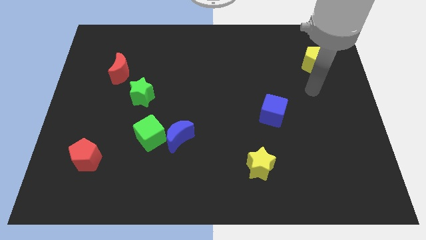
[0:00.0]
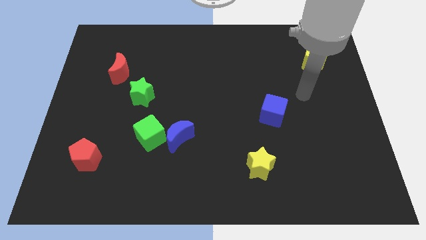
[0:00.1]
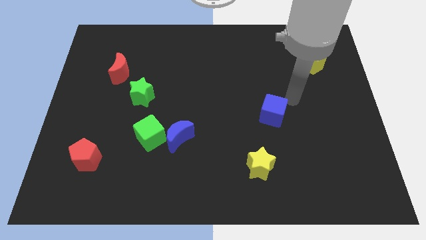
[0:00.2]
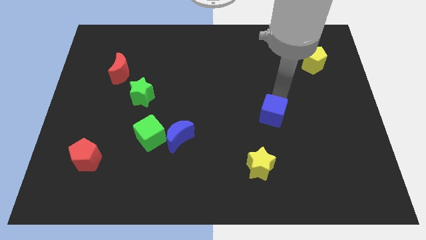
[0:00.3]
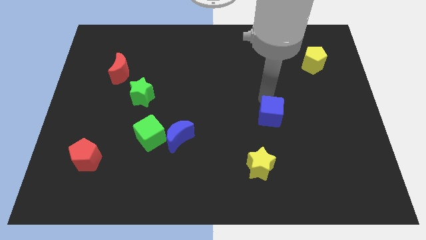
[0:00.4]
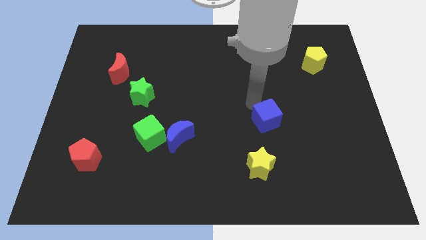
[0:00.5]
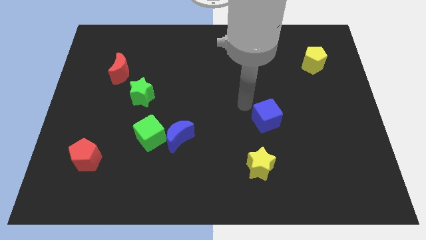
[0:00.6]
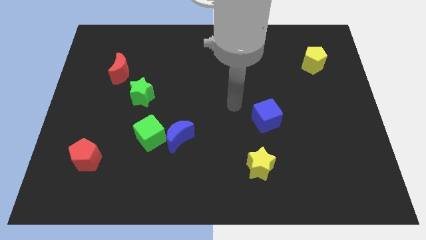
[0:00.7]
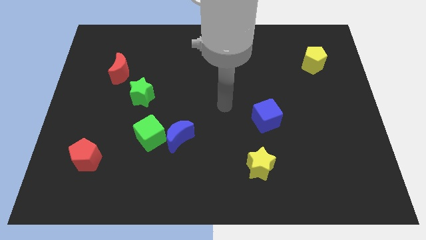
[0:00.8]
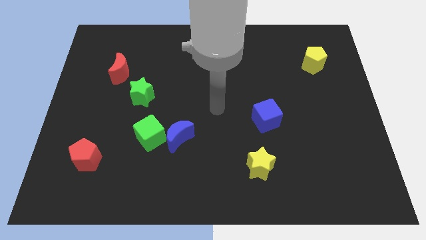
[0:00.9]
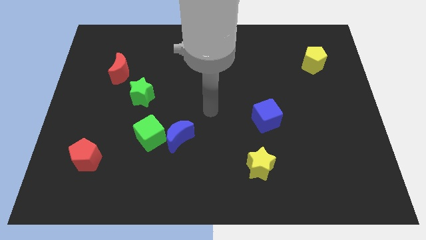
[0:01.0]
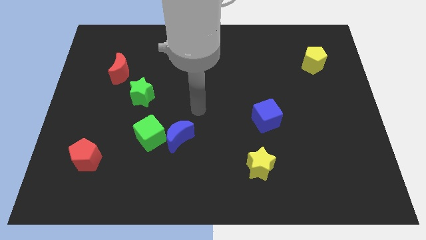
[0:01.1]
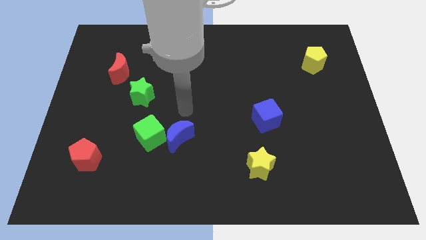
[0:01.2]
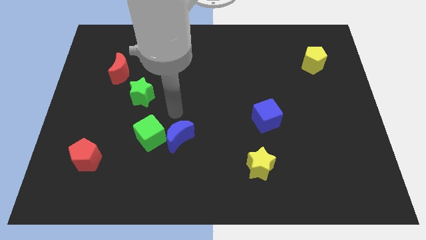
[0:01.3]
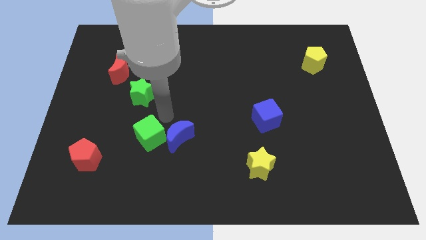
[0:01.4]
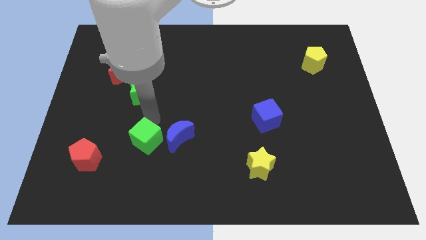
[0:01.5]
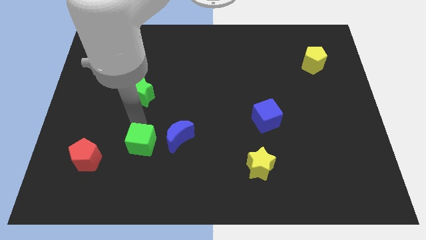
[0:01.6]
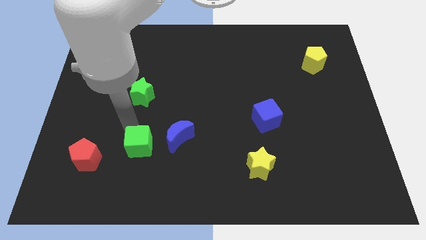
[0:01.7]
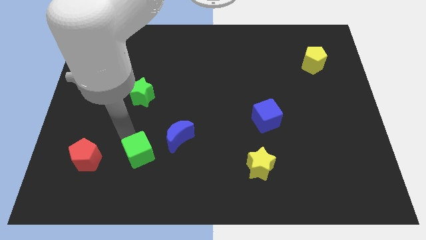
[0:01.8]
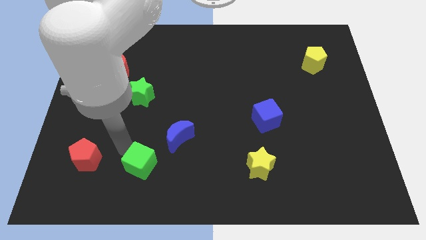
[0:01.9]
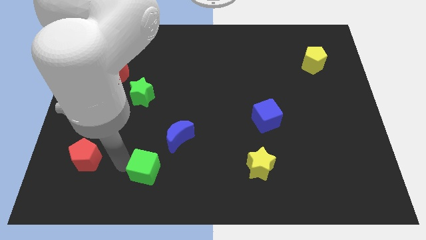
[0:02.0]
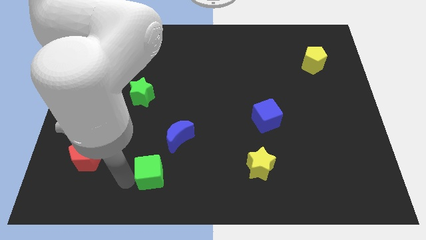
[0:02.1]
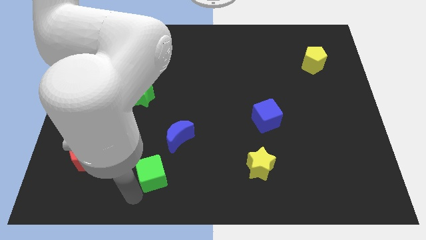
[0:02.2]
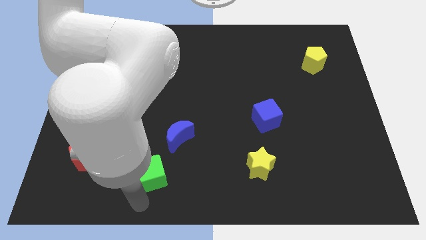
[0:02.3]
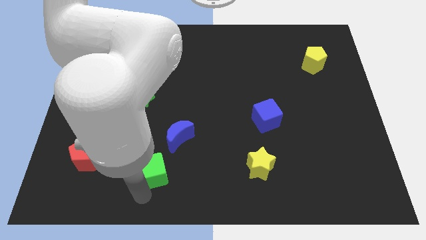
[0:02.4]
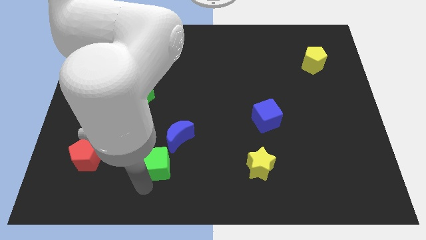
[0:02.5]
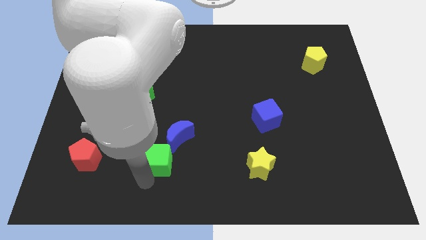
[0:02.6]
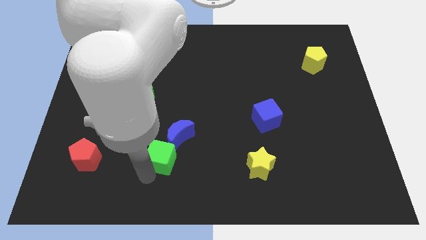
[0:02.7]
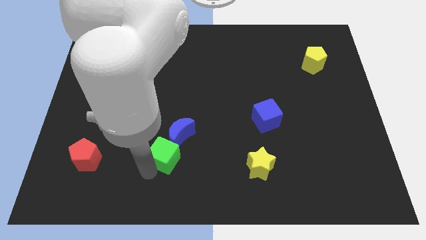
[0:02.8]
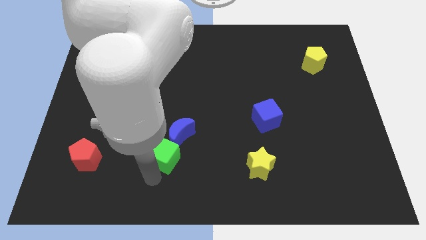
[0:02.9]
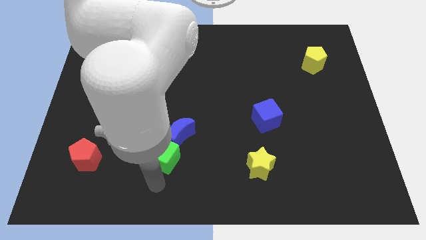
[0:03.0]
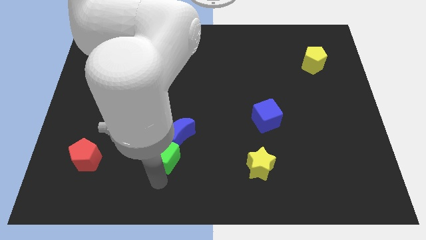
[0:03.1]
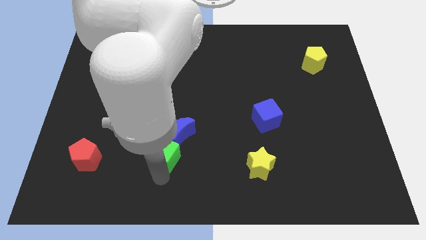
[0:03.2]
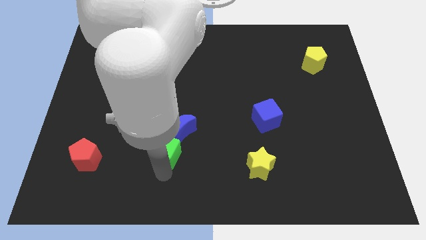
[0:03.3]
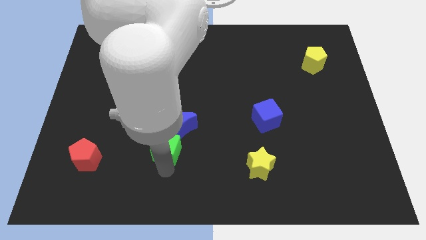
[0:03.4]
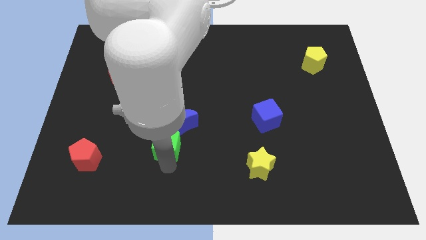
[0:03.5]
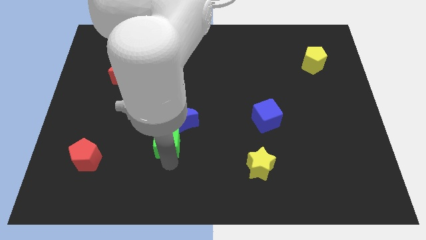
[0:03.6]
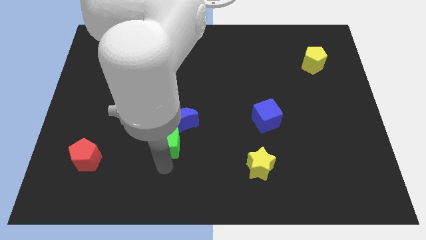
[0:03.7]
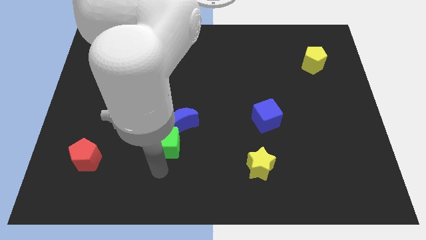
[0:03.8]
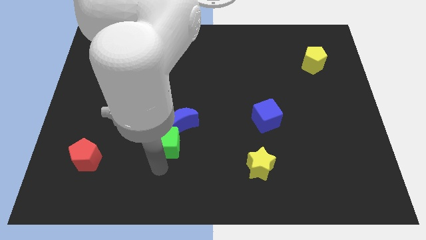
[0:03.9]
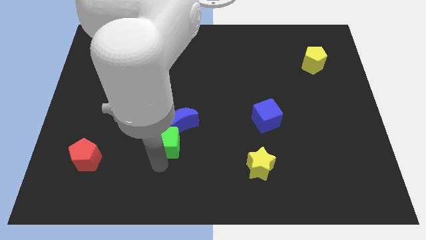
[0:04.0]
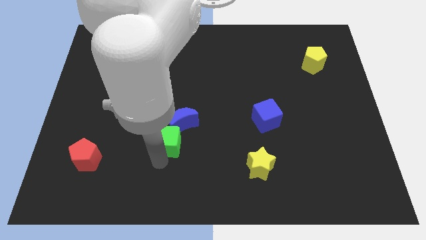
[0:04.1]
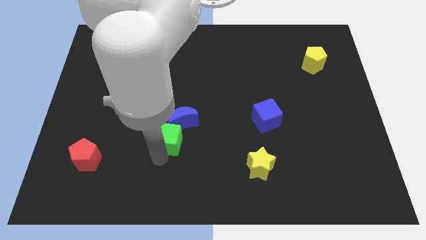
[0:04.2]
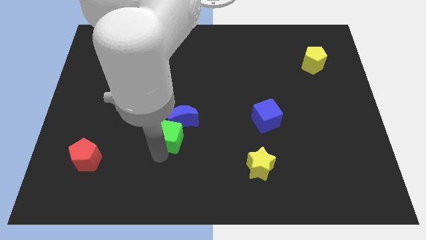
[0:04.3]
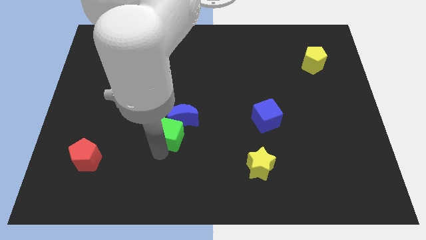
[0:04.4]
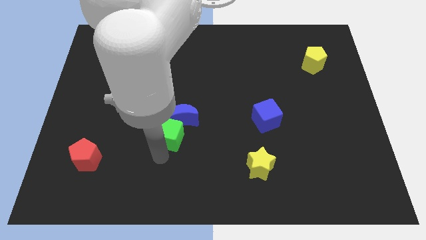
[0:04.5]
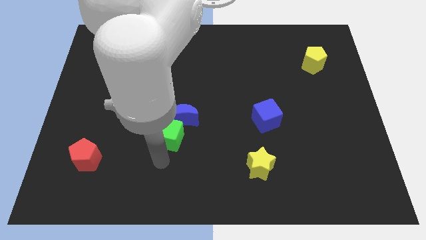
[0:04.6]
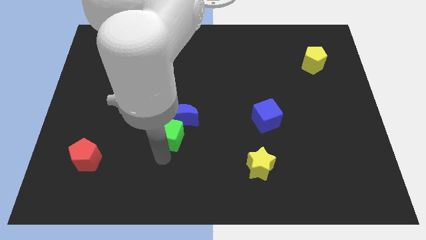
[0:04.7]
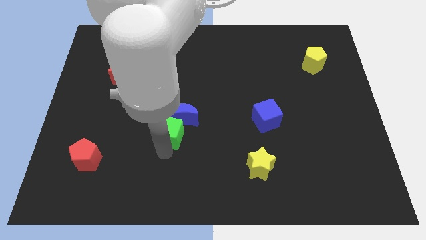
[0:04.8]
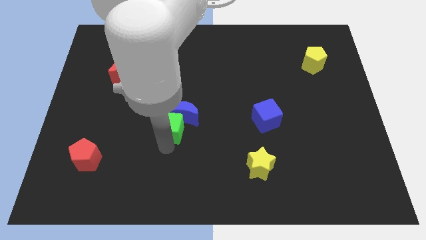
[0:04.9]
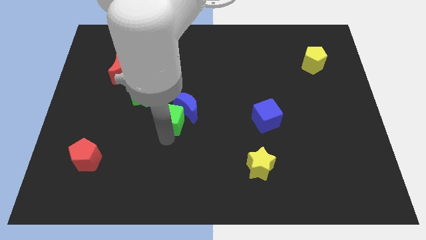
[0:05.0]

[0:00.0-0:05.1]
slide the green cube to the center

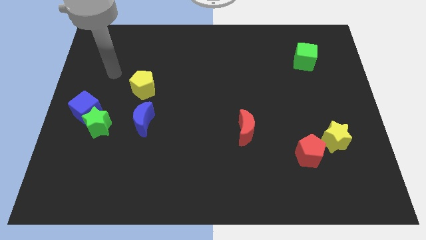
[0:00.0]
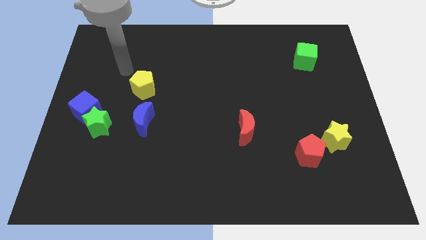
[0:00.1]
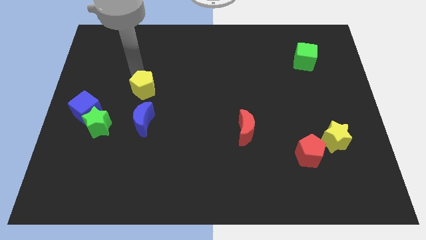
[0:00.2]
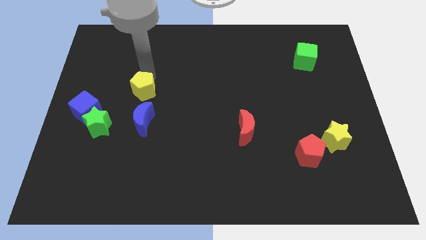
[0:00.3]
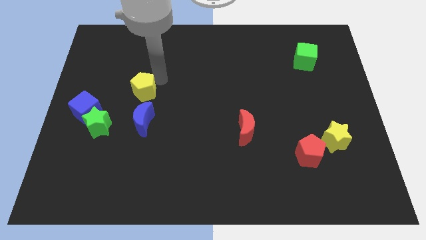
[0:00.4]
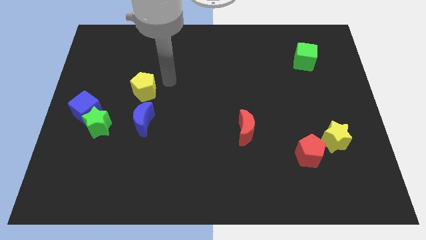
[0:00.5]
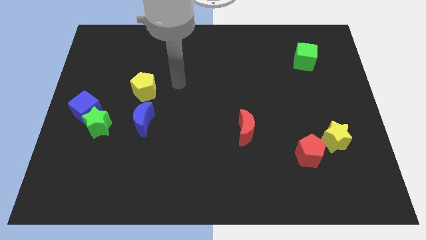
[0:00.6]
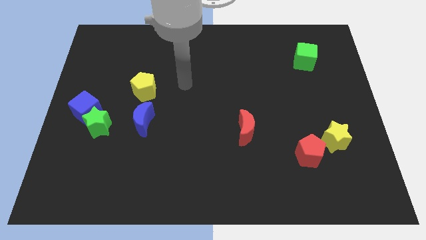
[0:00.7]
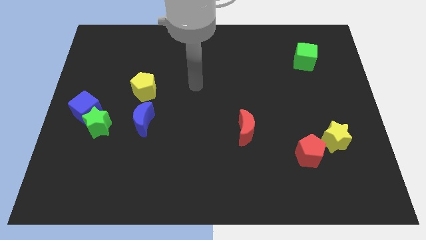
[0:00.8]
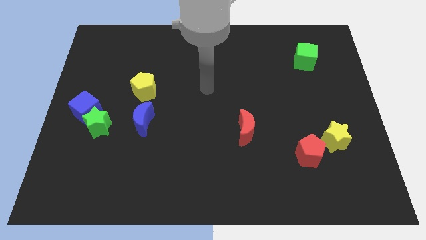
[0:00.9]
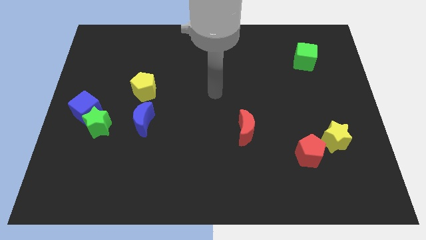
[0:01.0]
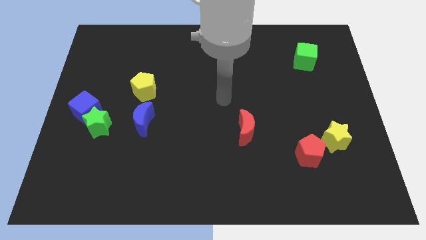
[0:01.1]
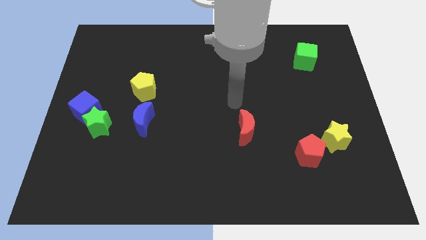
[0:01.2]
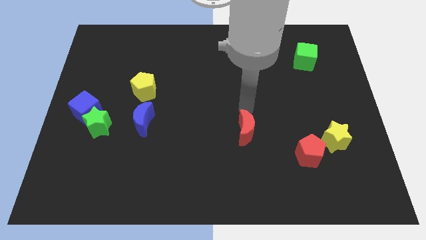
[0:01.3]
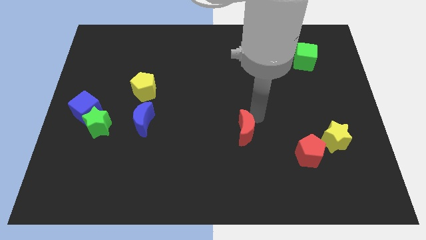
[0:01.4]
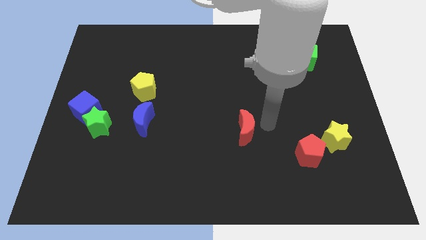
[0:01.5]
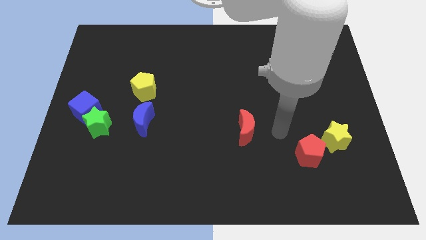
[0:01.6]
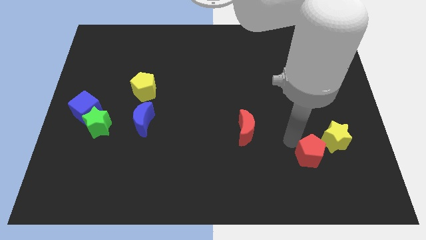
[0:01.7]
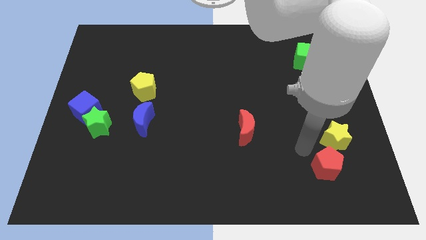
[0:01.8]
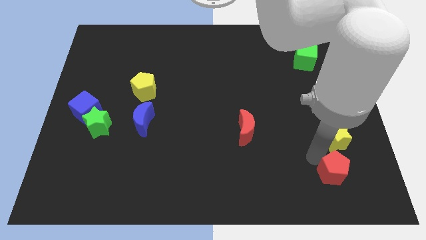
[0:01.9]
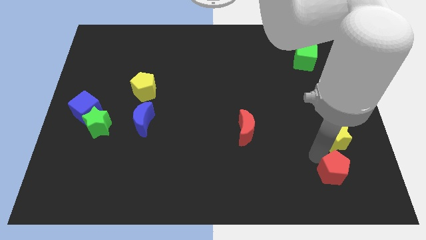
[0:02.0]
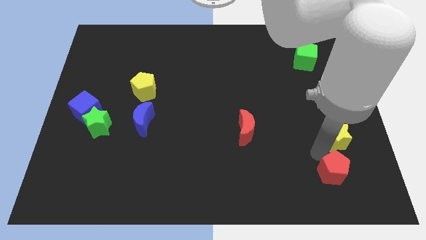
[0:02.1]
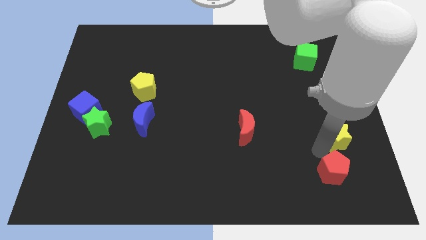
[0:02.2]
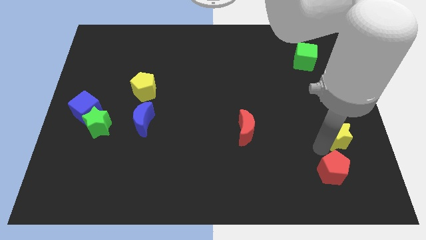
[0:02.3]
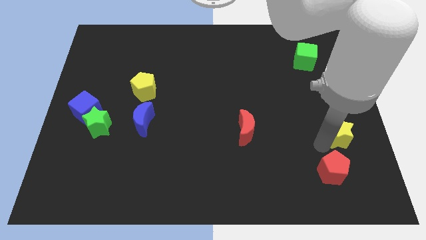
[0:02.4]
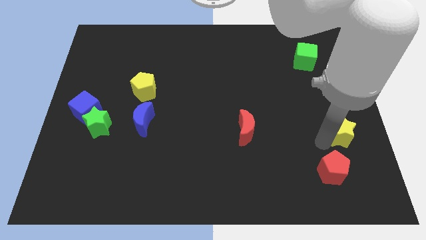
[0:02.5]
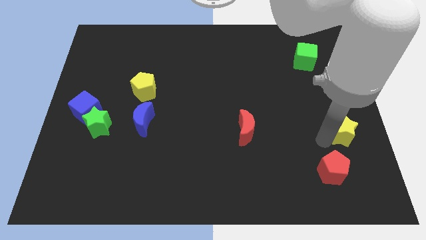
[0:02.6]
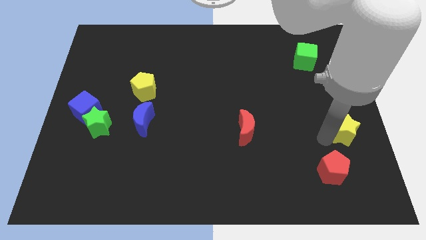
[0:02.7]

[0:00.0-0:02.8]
push the yellow star to the center right
